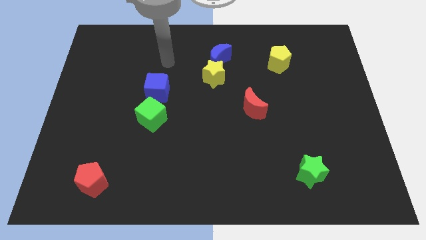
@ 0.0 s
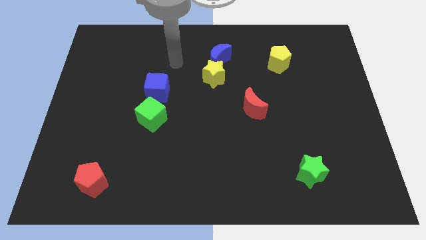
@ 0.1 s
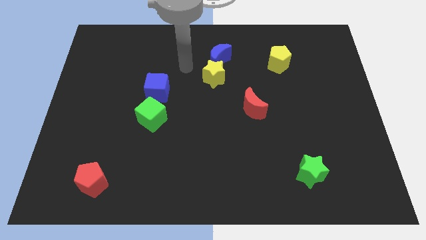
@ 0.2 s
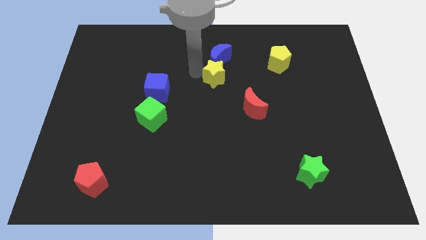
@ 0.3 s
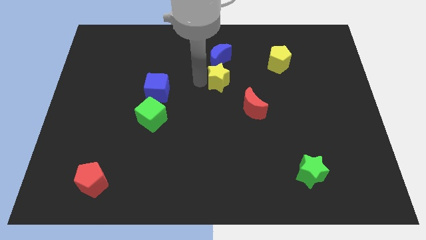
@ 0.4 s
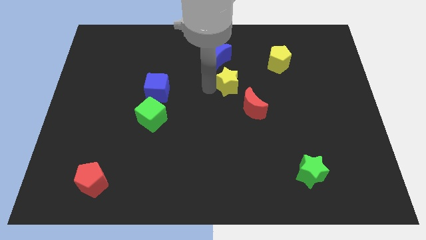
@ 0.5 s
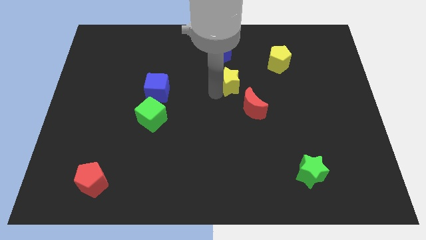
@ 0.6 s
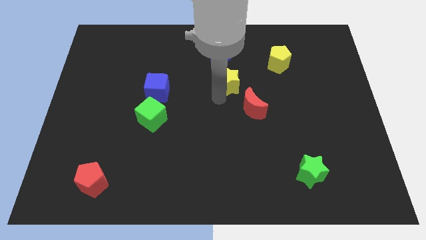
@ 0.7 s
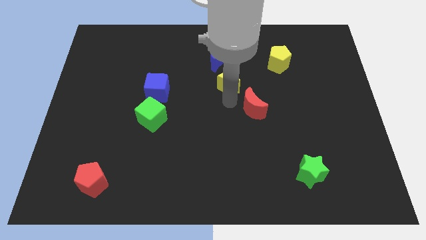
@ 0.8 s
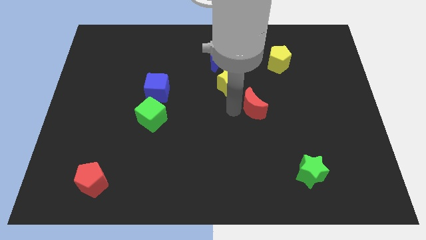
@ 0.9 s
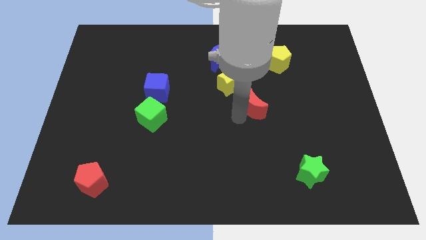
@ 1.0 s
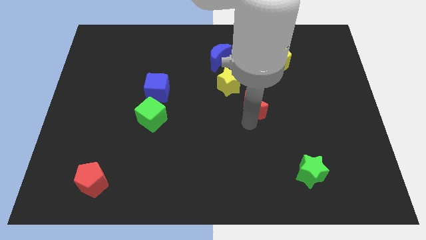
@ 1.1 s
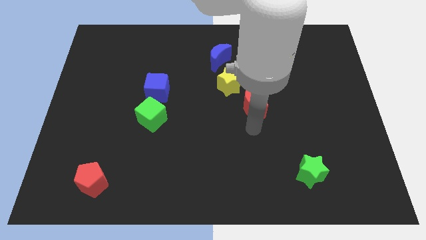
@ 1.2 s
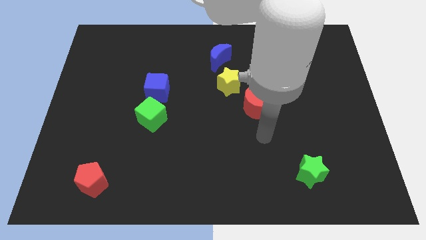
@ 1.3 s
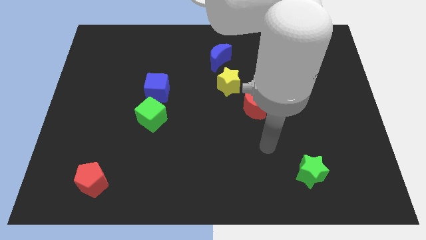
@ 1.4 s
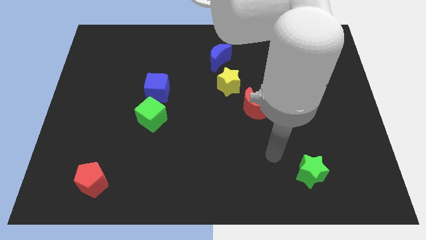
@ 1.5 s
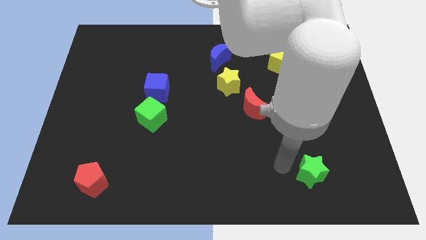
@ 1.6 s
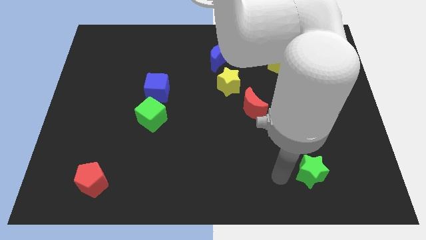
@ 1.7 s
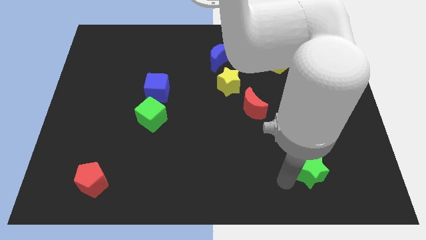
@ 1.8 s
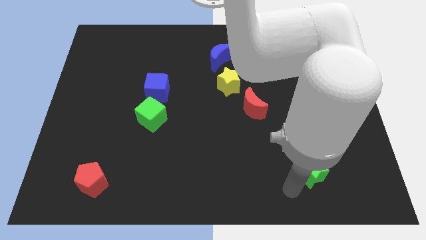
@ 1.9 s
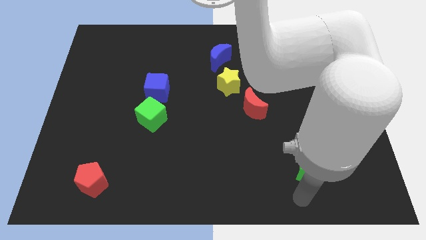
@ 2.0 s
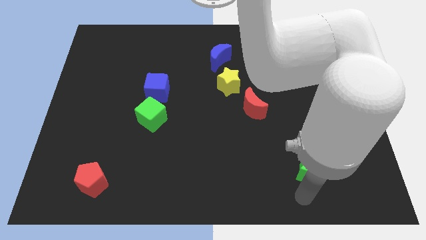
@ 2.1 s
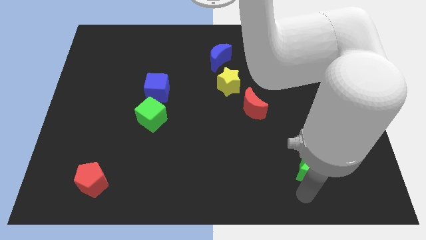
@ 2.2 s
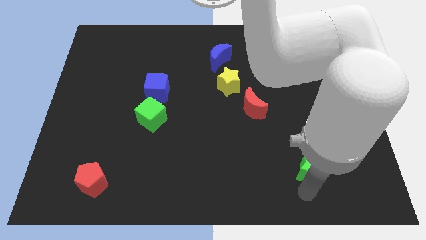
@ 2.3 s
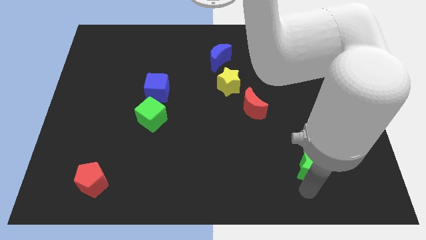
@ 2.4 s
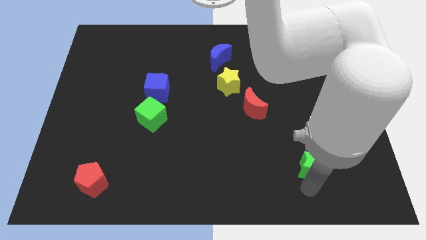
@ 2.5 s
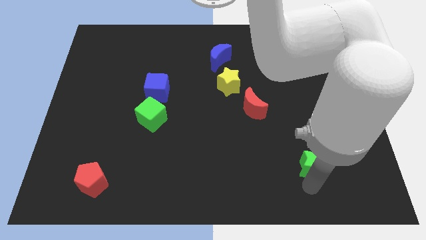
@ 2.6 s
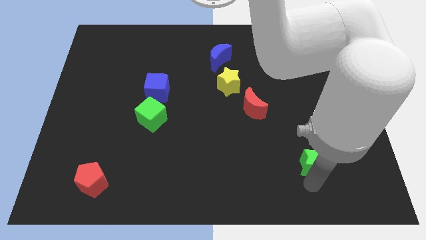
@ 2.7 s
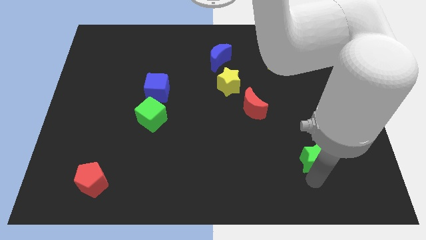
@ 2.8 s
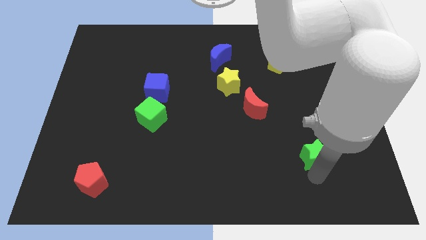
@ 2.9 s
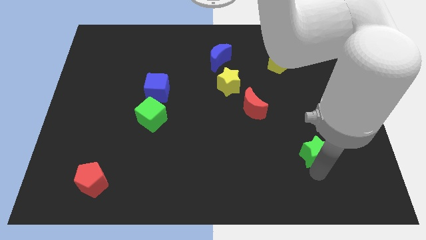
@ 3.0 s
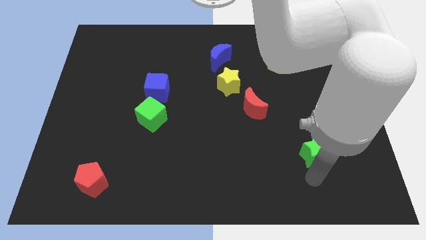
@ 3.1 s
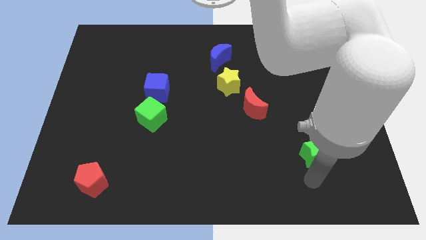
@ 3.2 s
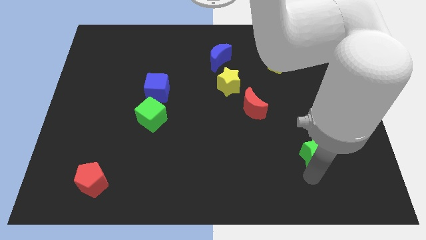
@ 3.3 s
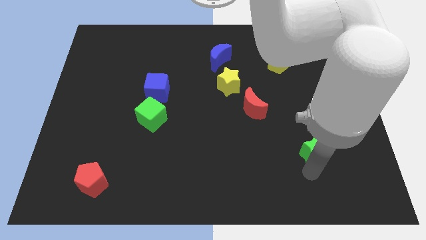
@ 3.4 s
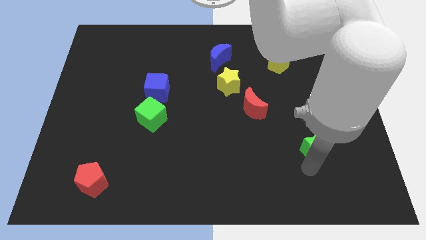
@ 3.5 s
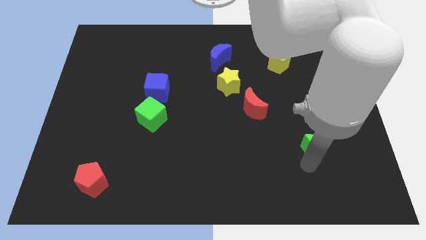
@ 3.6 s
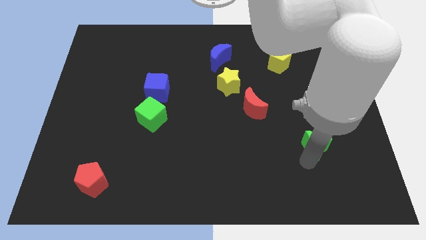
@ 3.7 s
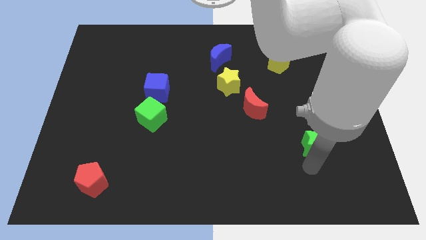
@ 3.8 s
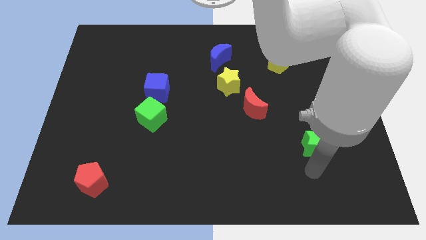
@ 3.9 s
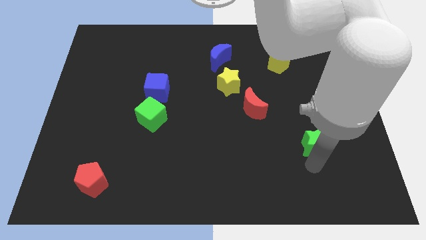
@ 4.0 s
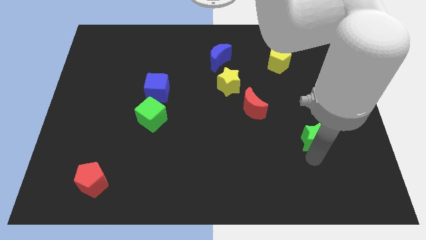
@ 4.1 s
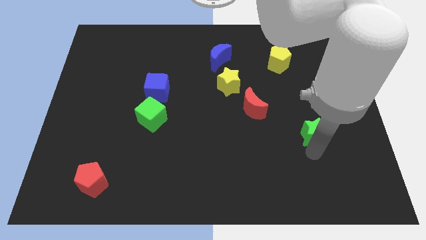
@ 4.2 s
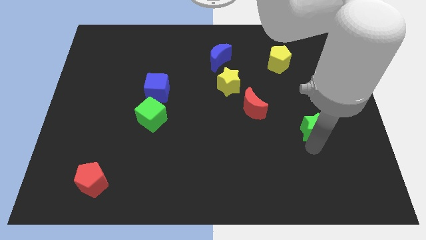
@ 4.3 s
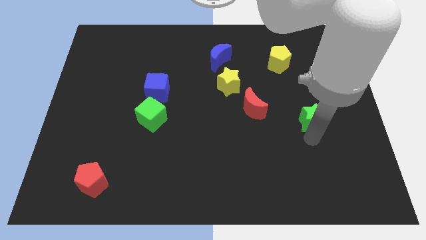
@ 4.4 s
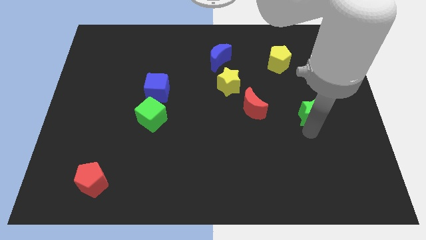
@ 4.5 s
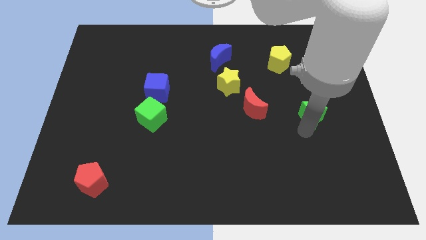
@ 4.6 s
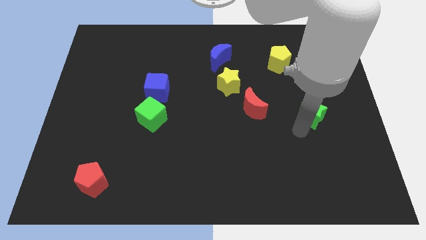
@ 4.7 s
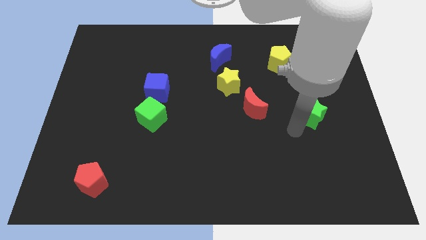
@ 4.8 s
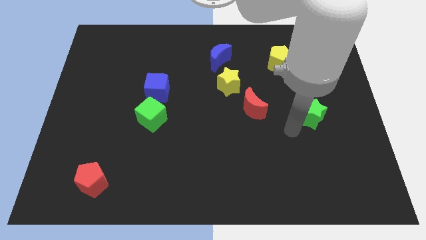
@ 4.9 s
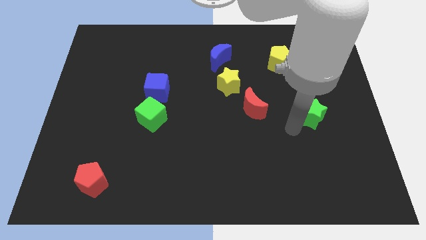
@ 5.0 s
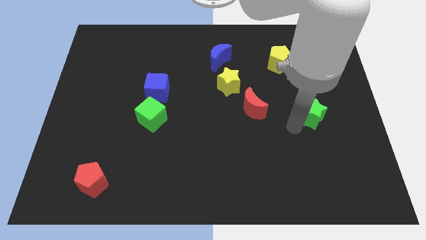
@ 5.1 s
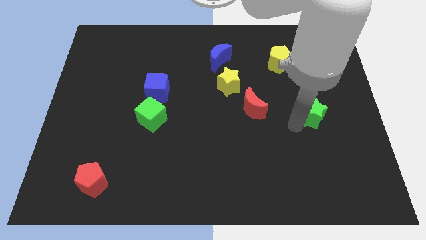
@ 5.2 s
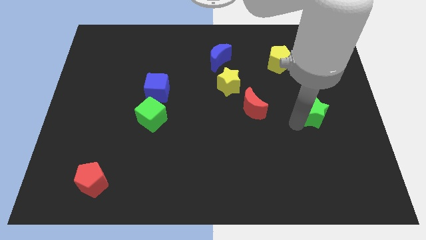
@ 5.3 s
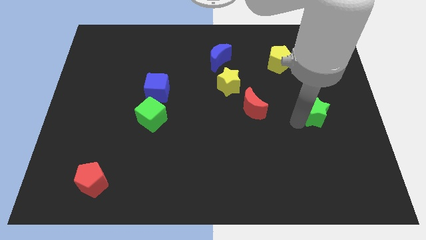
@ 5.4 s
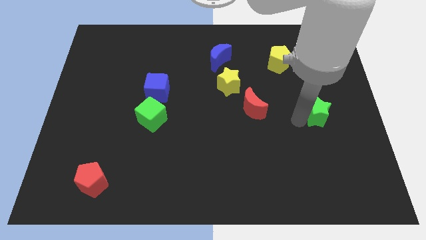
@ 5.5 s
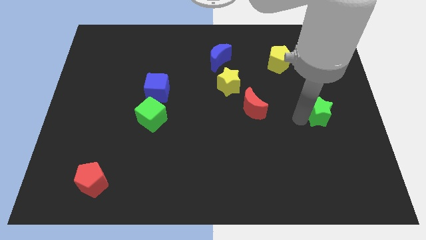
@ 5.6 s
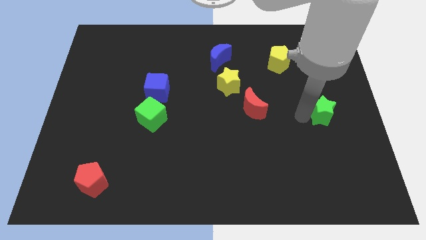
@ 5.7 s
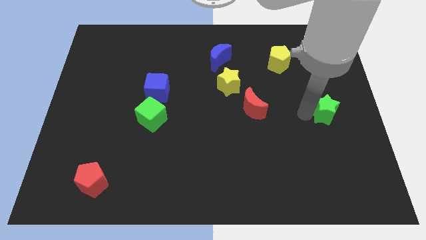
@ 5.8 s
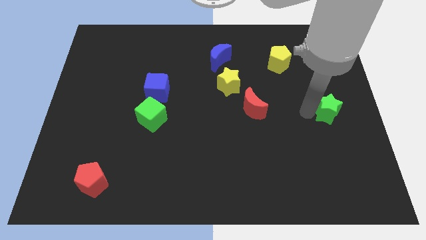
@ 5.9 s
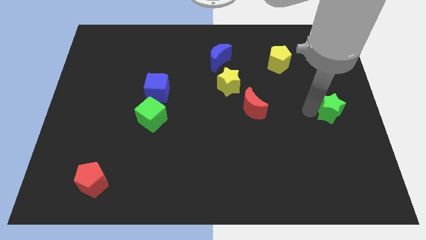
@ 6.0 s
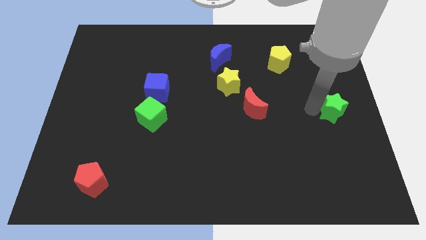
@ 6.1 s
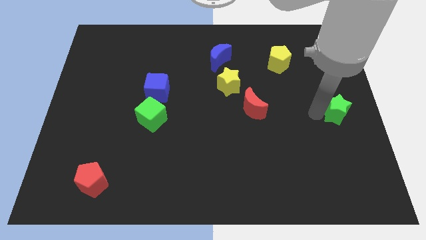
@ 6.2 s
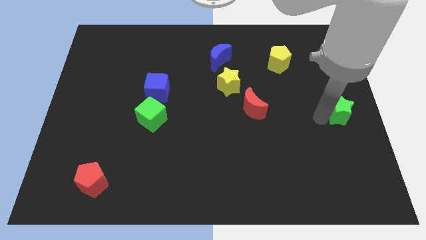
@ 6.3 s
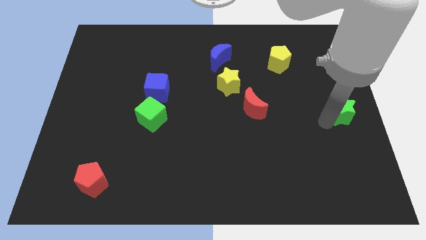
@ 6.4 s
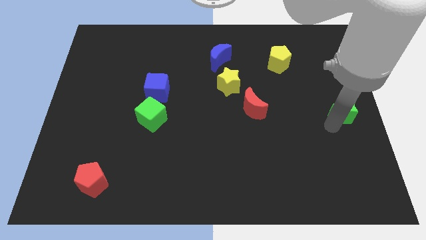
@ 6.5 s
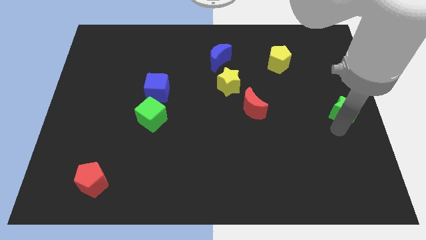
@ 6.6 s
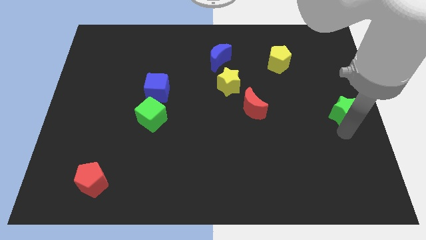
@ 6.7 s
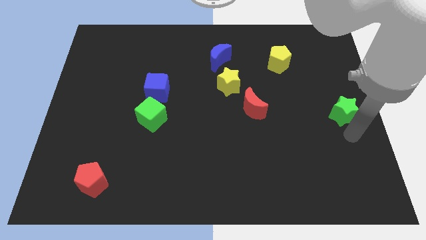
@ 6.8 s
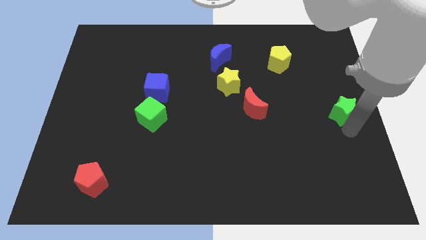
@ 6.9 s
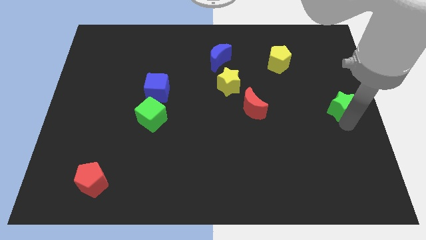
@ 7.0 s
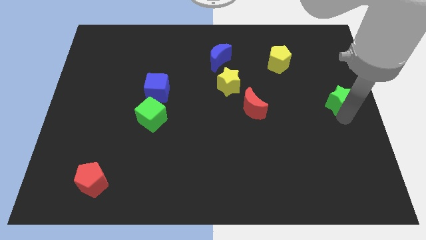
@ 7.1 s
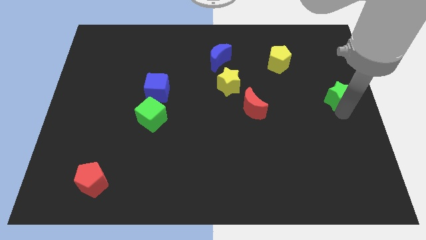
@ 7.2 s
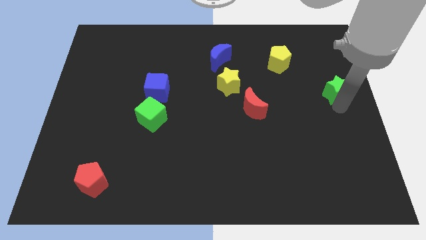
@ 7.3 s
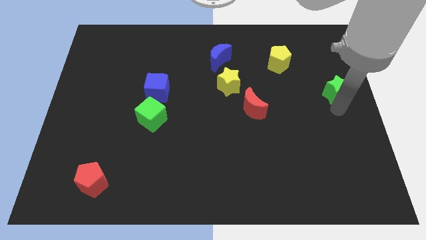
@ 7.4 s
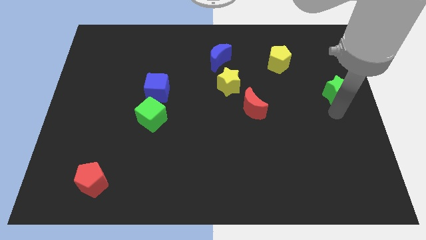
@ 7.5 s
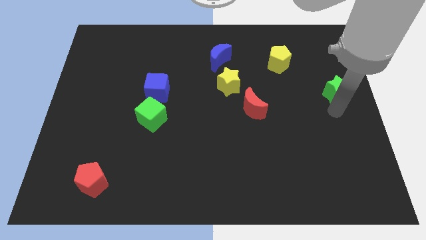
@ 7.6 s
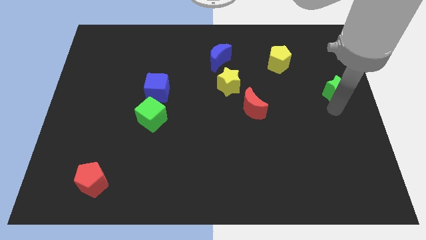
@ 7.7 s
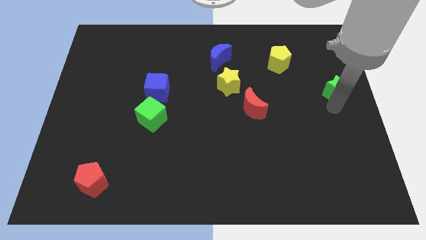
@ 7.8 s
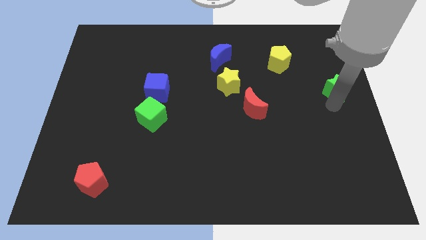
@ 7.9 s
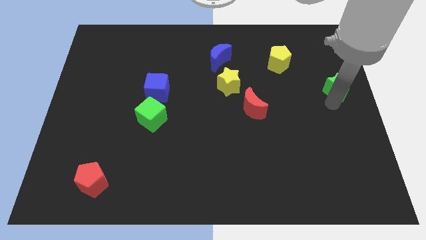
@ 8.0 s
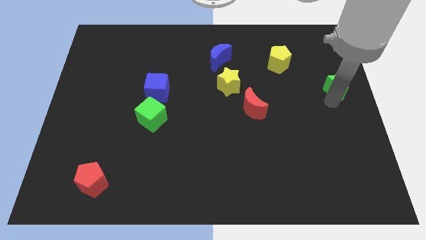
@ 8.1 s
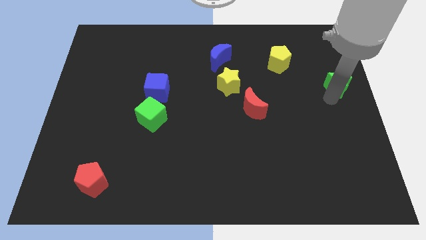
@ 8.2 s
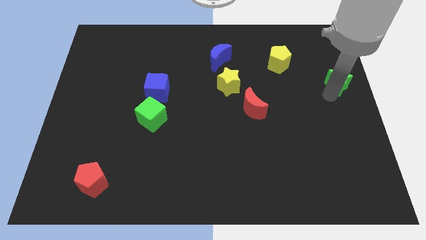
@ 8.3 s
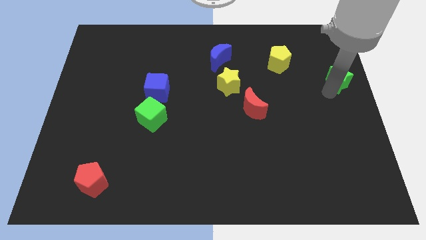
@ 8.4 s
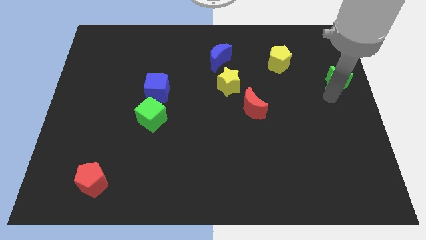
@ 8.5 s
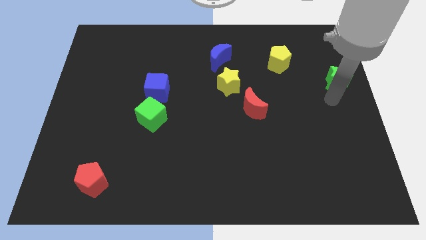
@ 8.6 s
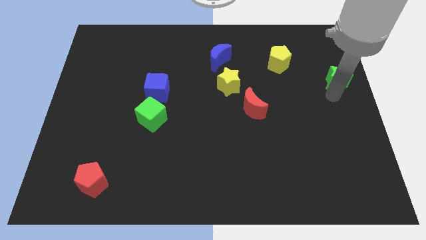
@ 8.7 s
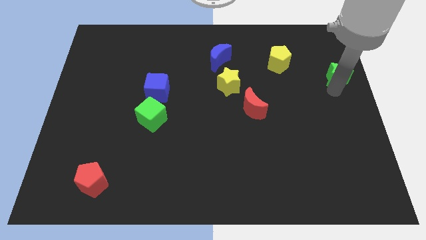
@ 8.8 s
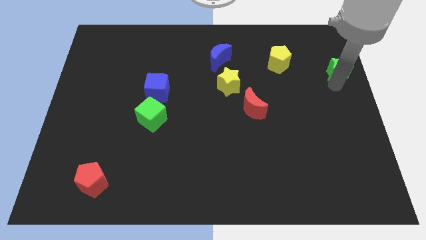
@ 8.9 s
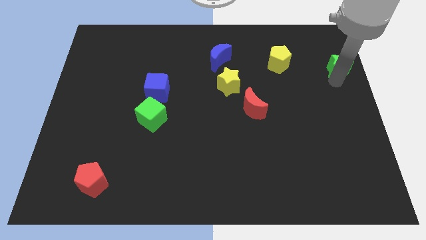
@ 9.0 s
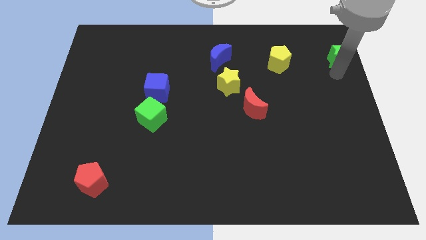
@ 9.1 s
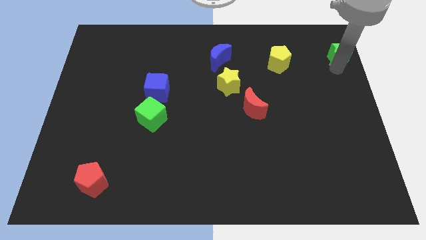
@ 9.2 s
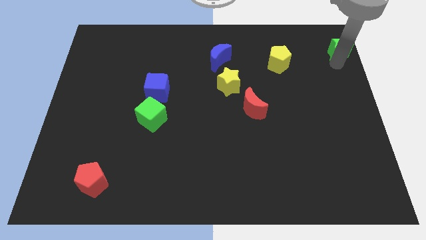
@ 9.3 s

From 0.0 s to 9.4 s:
put the green star to the top right of the board
